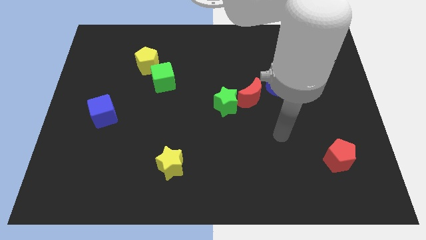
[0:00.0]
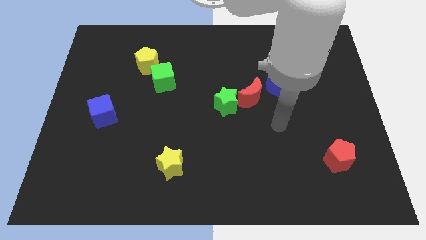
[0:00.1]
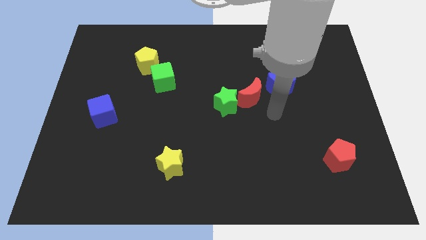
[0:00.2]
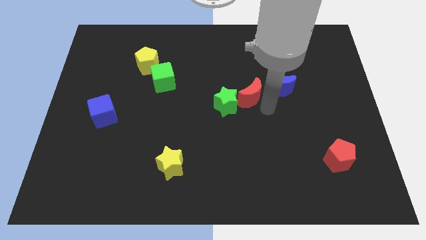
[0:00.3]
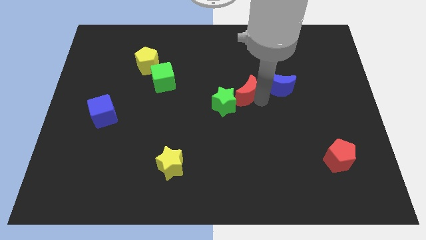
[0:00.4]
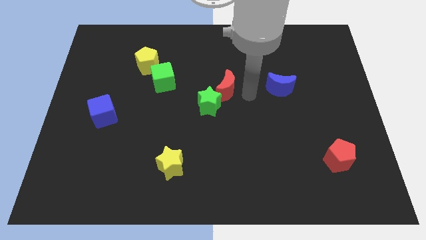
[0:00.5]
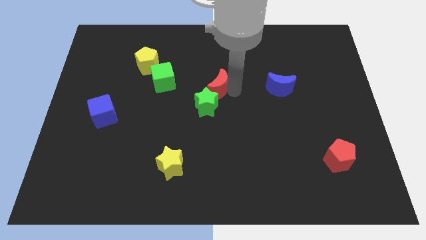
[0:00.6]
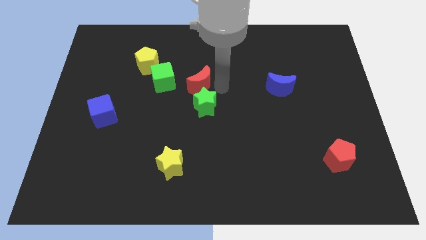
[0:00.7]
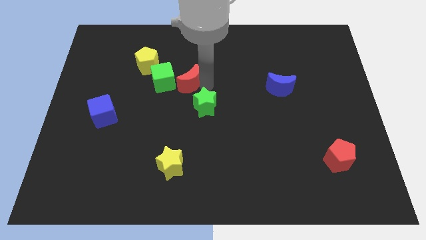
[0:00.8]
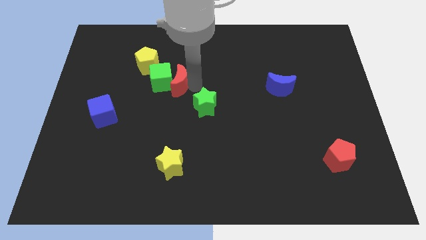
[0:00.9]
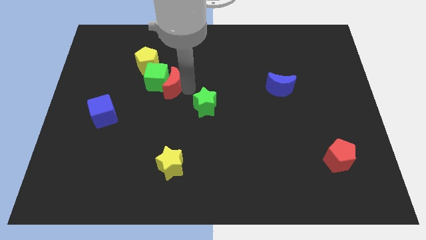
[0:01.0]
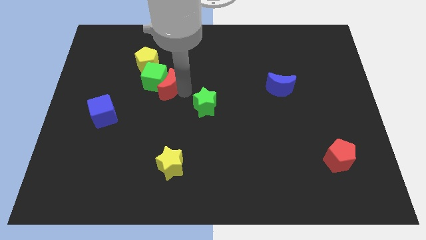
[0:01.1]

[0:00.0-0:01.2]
separate the green star from the red moon

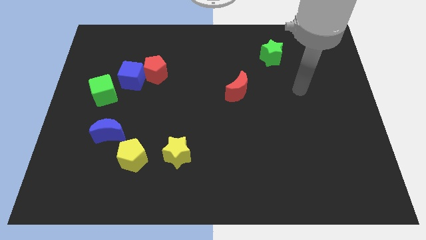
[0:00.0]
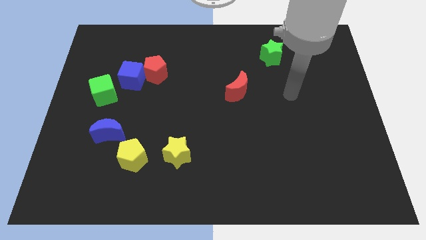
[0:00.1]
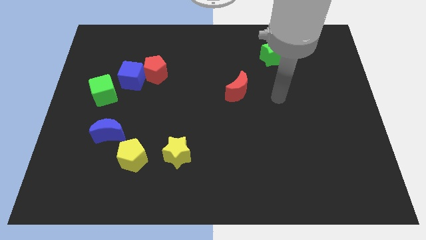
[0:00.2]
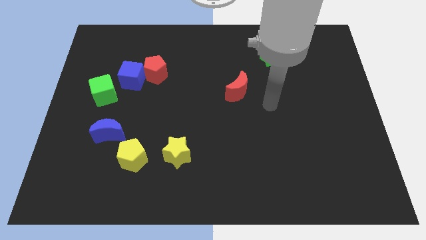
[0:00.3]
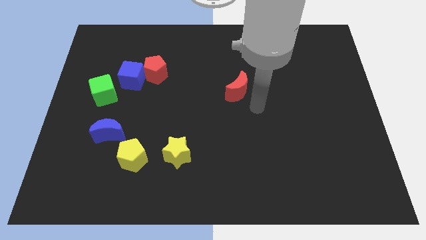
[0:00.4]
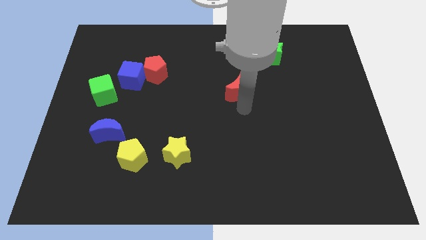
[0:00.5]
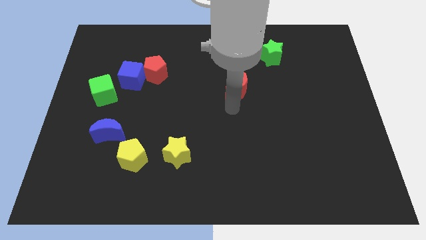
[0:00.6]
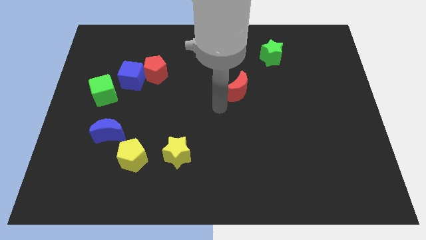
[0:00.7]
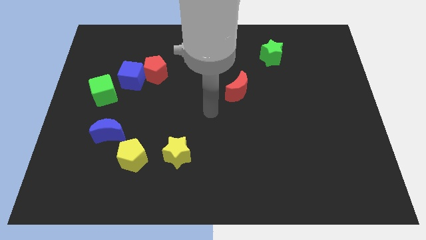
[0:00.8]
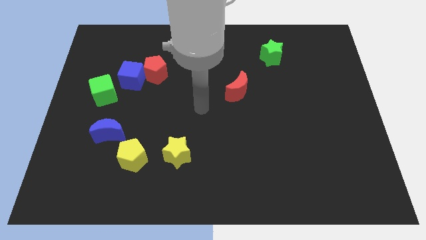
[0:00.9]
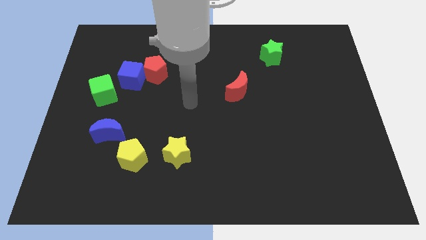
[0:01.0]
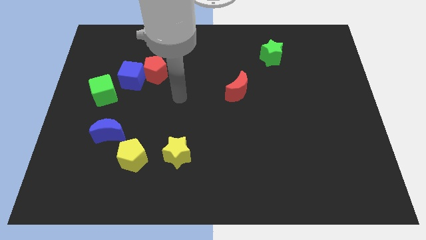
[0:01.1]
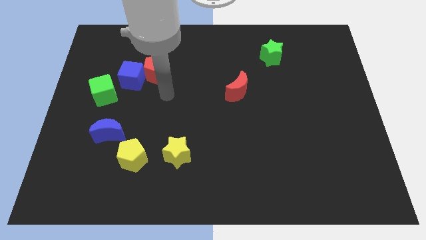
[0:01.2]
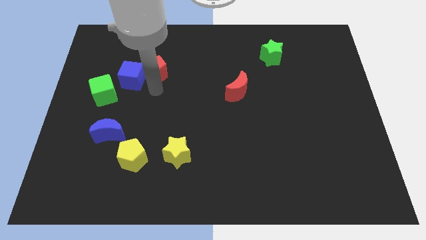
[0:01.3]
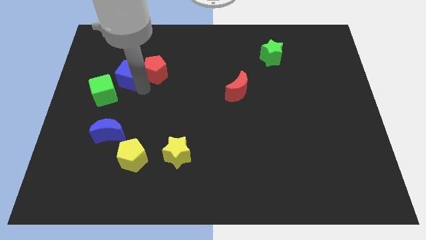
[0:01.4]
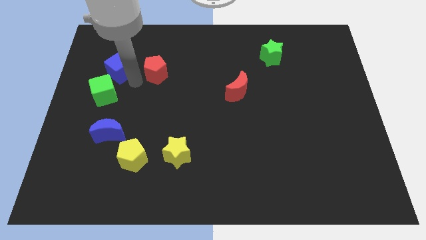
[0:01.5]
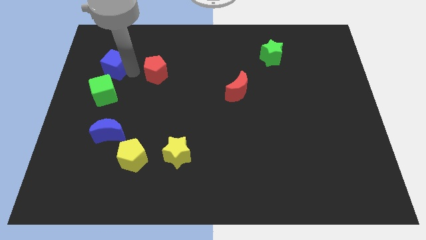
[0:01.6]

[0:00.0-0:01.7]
pull the red pentagon apart from the blue cube

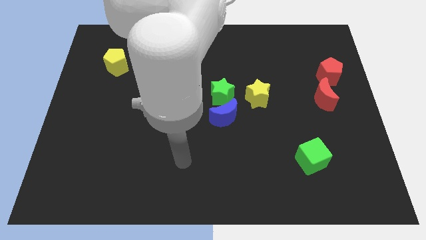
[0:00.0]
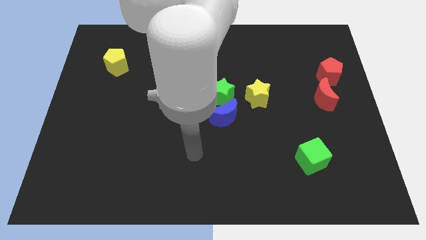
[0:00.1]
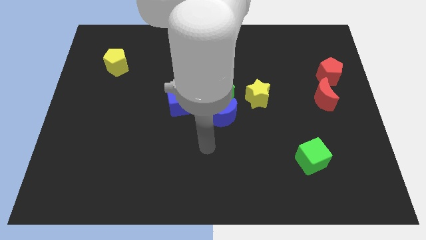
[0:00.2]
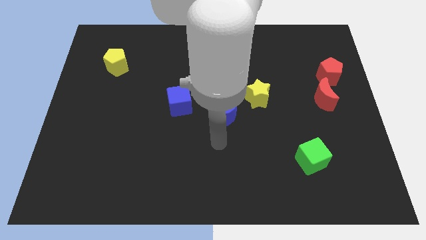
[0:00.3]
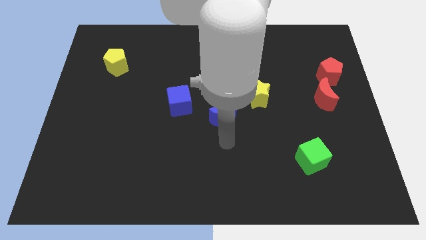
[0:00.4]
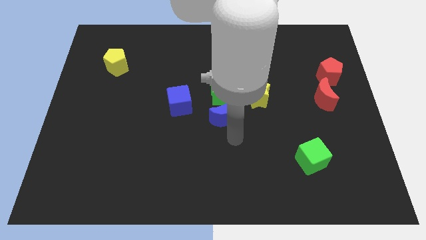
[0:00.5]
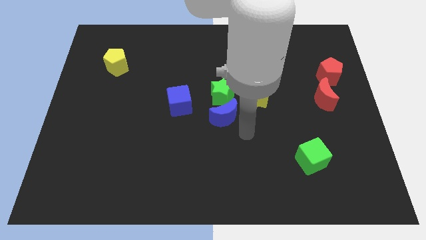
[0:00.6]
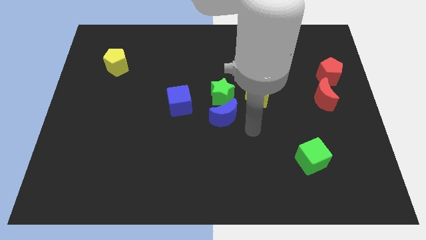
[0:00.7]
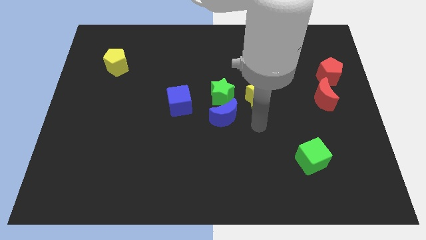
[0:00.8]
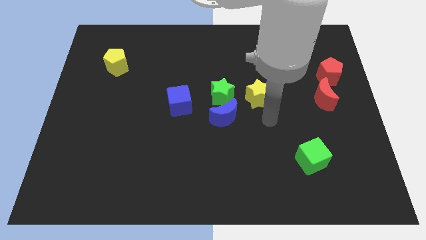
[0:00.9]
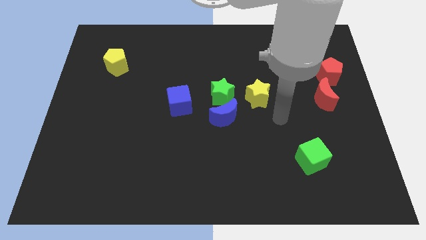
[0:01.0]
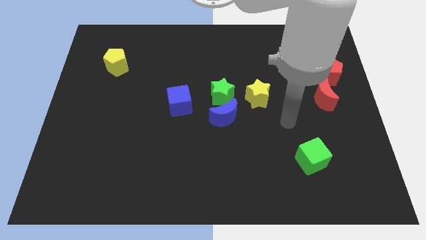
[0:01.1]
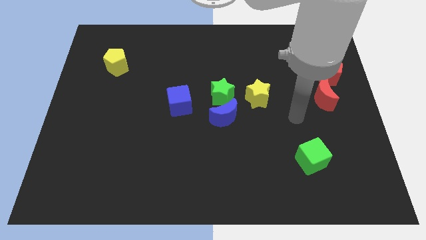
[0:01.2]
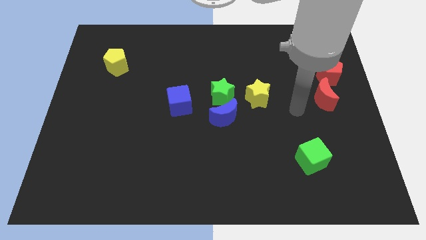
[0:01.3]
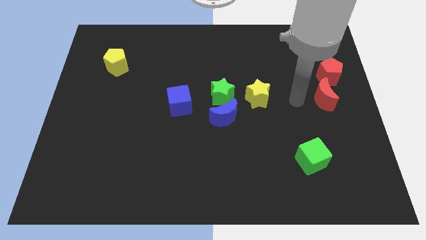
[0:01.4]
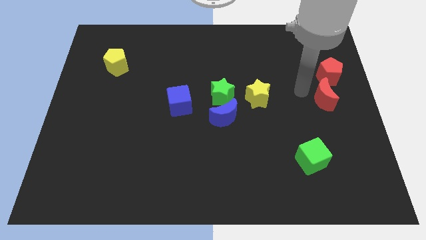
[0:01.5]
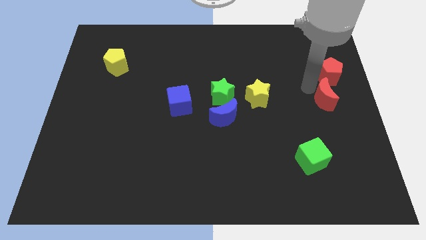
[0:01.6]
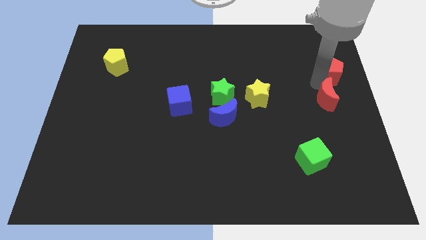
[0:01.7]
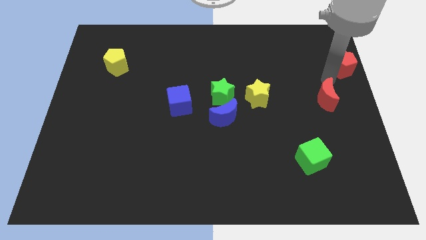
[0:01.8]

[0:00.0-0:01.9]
separate the red moon from the red pentagon

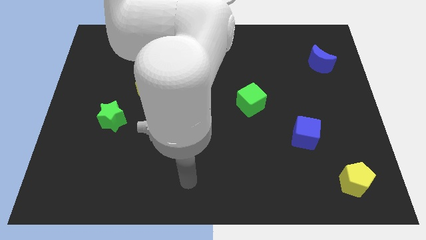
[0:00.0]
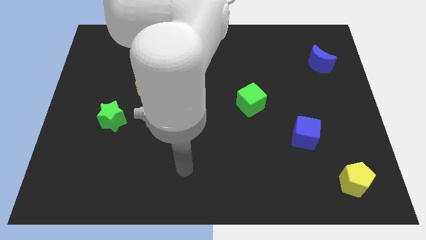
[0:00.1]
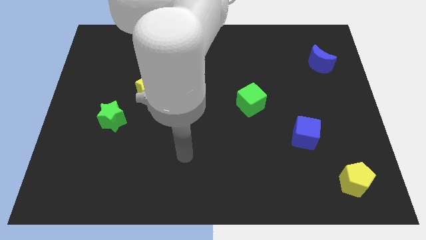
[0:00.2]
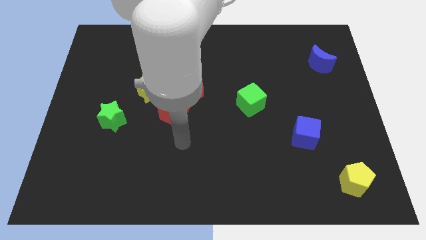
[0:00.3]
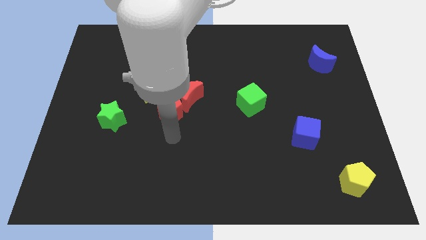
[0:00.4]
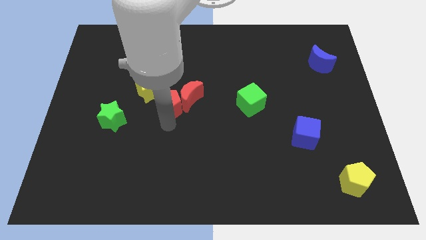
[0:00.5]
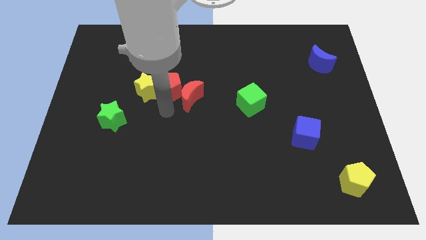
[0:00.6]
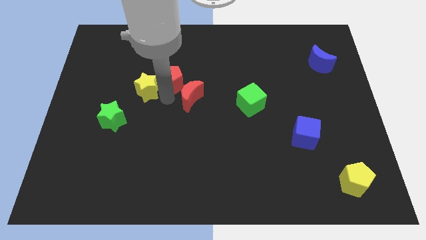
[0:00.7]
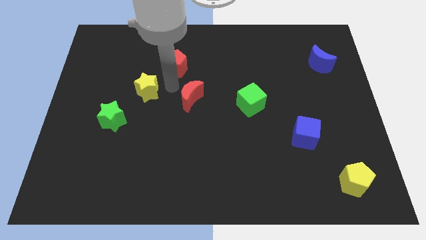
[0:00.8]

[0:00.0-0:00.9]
move the red moon away from the red pentagon

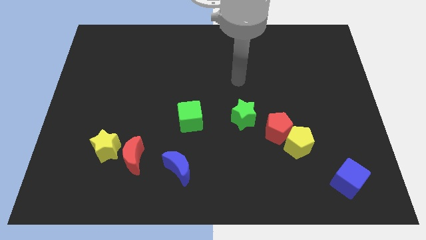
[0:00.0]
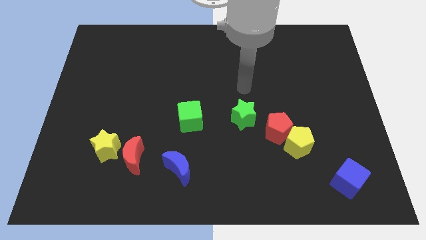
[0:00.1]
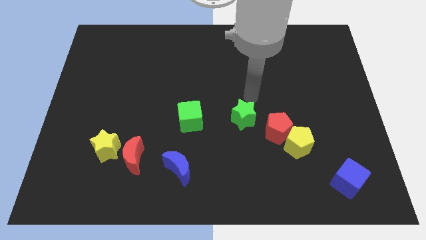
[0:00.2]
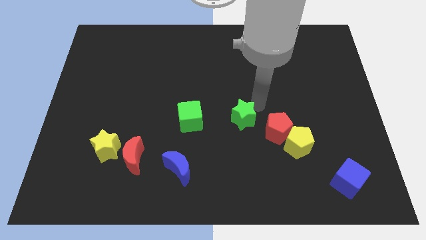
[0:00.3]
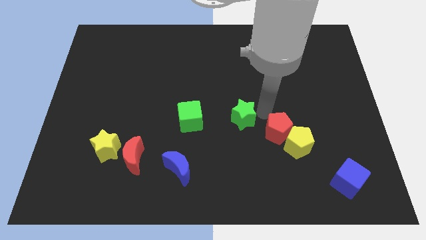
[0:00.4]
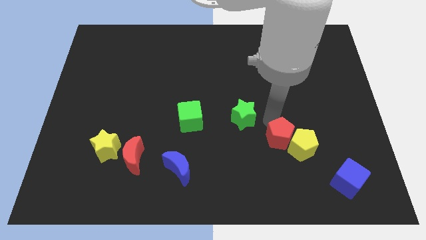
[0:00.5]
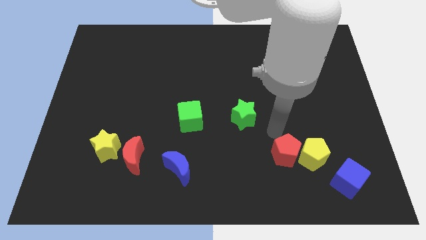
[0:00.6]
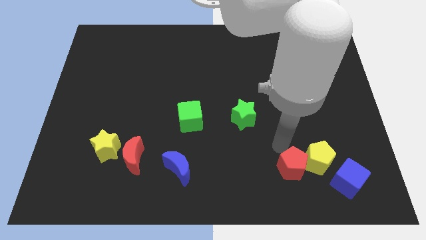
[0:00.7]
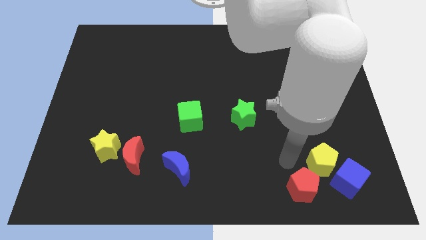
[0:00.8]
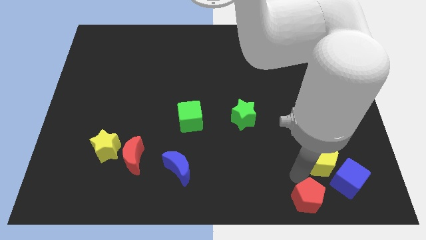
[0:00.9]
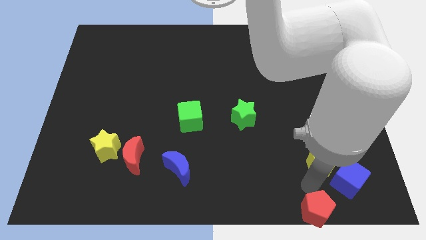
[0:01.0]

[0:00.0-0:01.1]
pull the yellow pentagon apart from the red pentagon

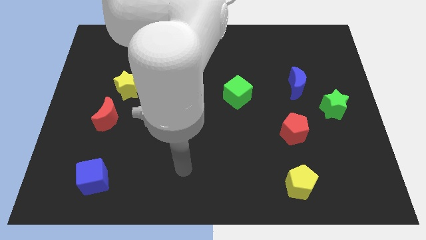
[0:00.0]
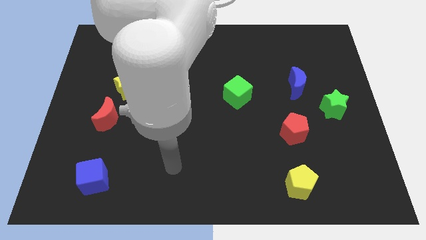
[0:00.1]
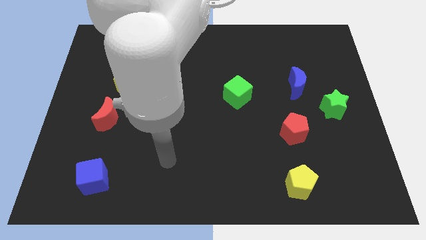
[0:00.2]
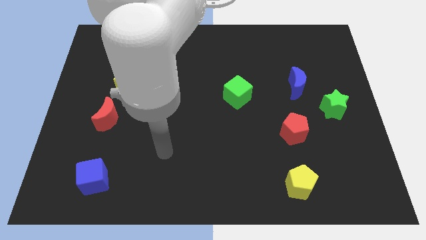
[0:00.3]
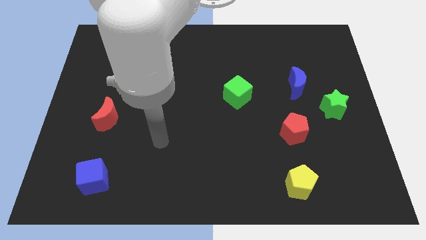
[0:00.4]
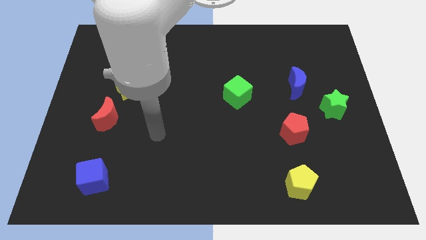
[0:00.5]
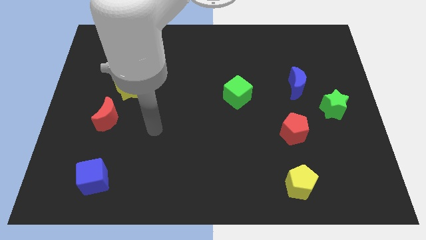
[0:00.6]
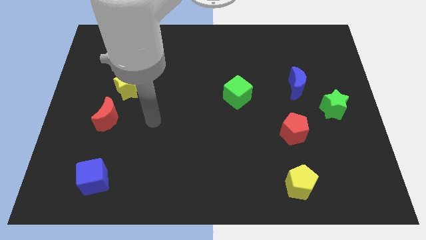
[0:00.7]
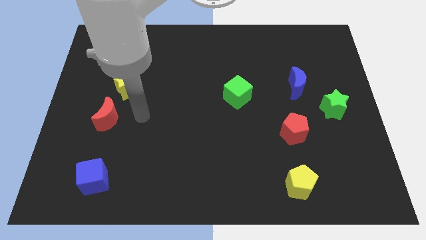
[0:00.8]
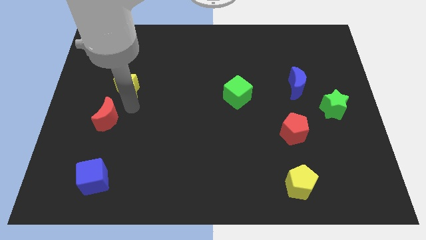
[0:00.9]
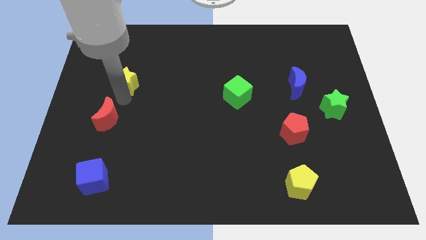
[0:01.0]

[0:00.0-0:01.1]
pull the red moon apart from the yellow star

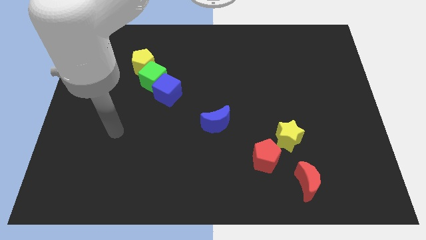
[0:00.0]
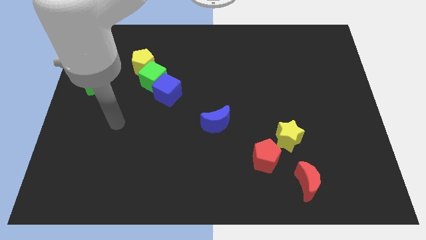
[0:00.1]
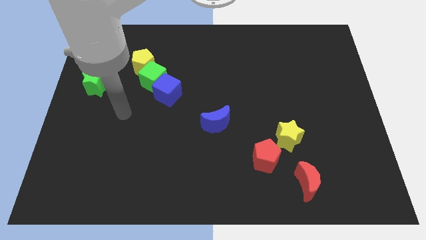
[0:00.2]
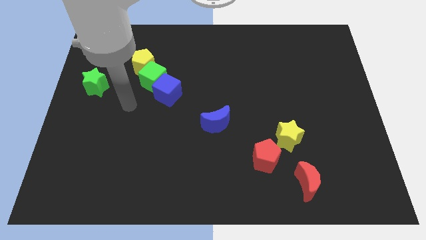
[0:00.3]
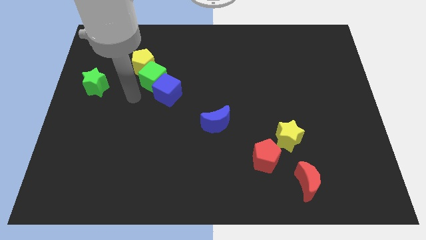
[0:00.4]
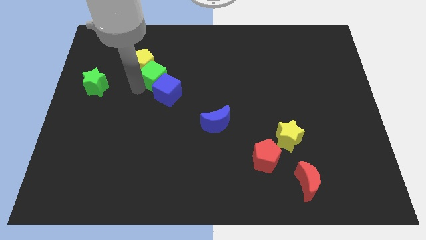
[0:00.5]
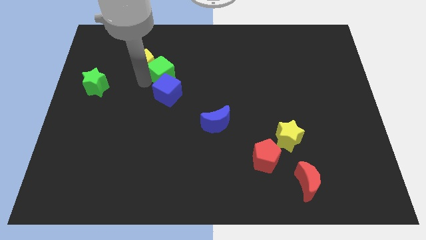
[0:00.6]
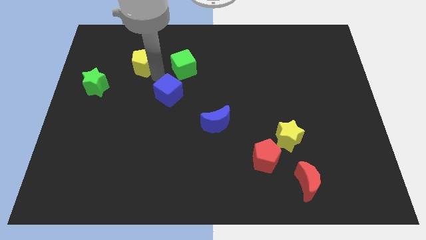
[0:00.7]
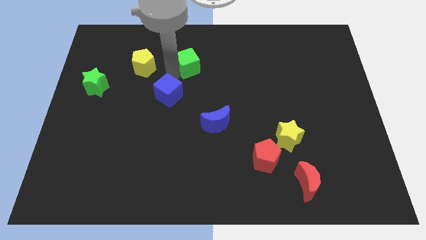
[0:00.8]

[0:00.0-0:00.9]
move the blue cube away from the green cube

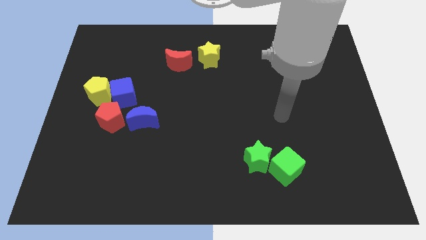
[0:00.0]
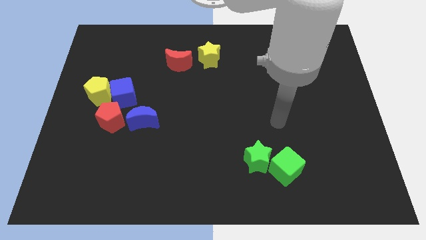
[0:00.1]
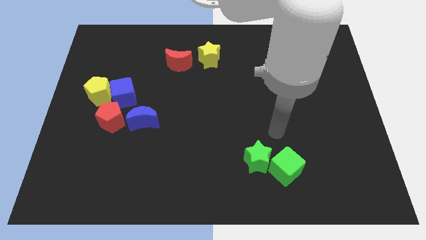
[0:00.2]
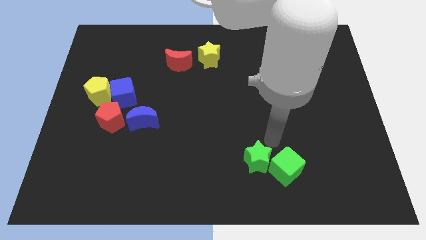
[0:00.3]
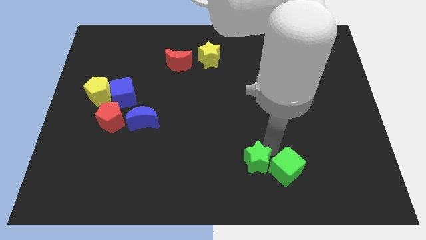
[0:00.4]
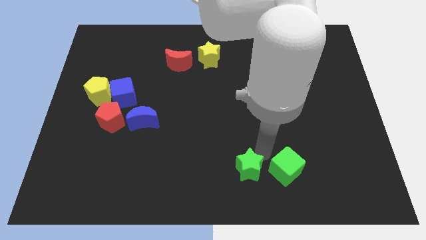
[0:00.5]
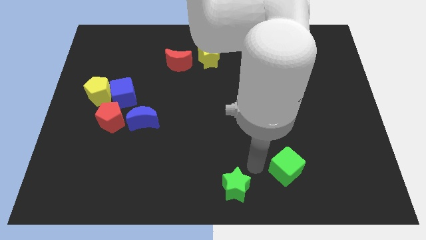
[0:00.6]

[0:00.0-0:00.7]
move the green cube away from the green star
